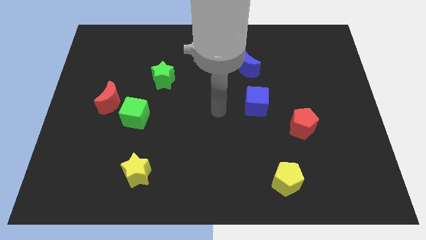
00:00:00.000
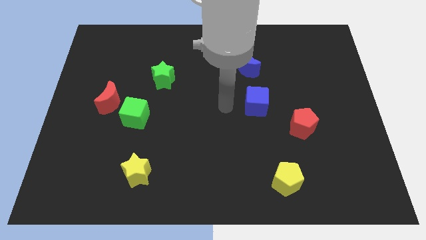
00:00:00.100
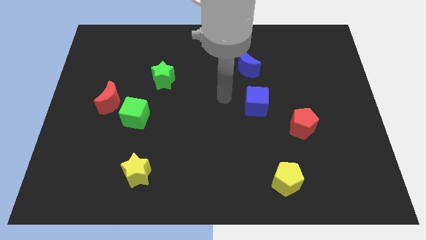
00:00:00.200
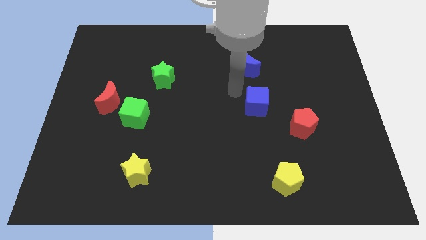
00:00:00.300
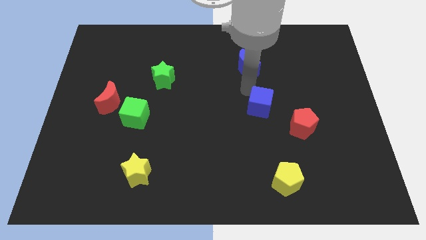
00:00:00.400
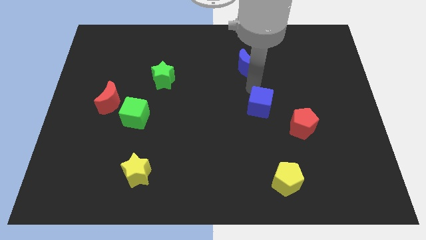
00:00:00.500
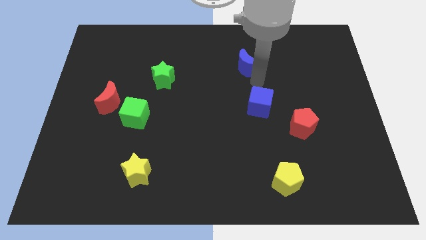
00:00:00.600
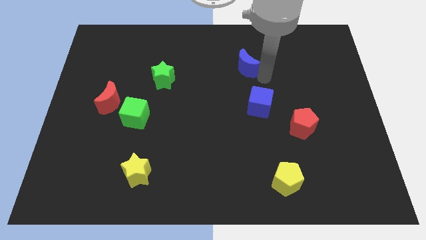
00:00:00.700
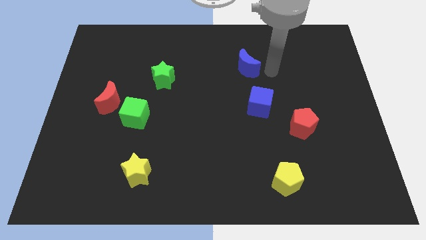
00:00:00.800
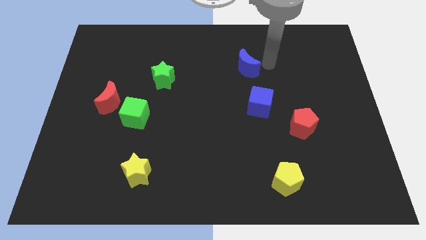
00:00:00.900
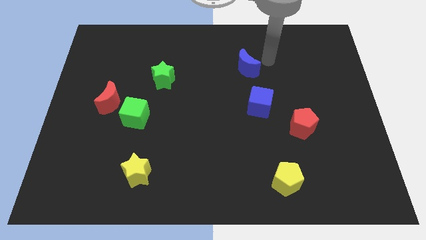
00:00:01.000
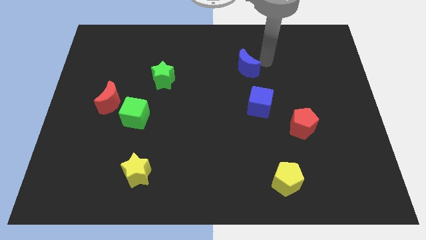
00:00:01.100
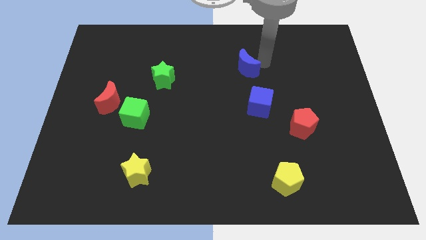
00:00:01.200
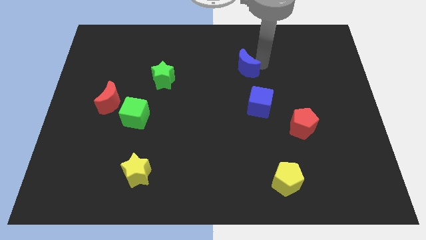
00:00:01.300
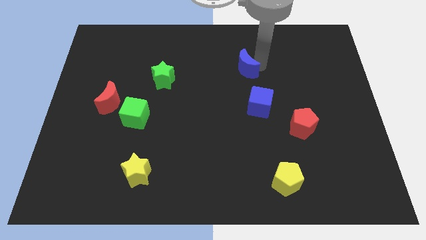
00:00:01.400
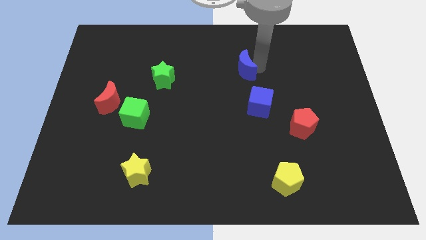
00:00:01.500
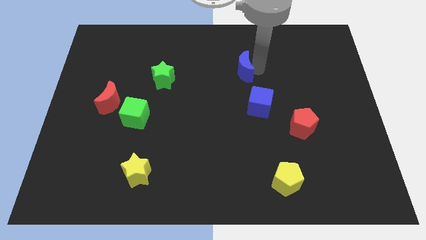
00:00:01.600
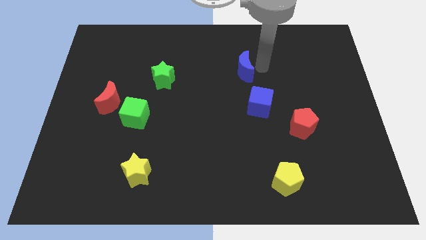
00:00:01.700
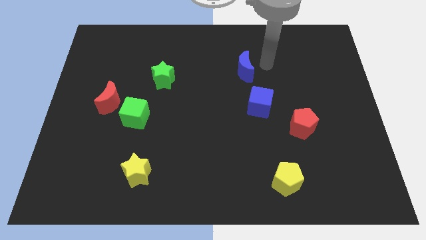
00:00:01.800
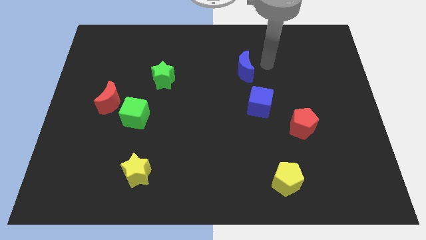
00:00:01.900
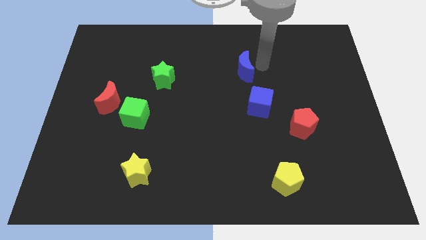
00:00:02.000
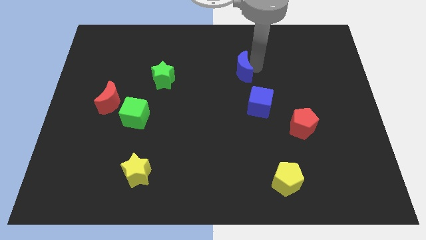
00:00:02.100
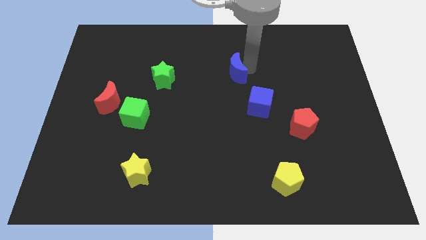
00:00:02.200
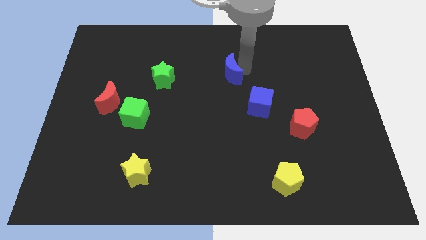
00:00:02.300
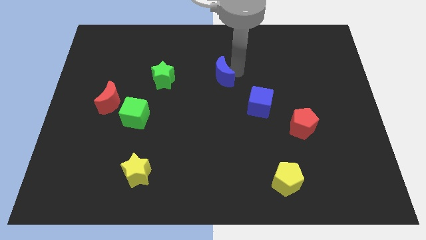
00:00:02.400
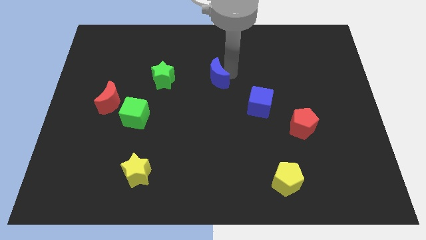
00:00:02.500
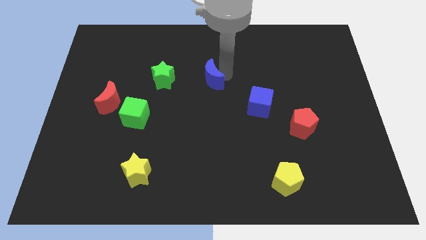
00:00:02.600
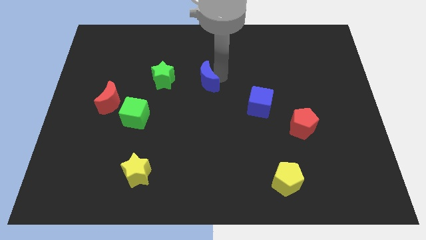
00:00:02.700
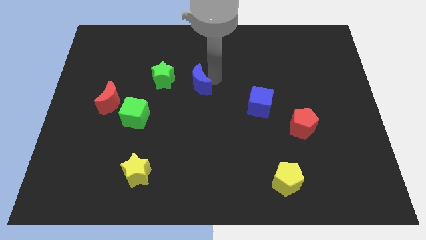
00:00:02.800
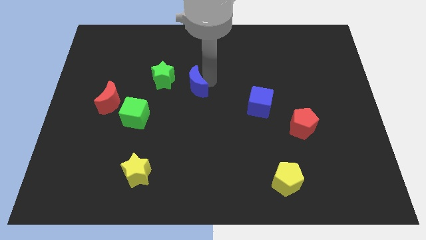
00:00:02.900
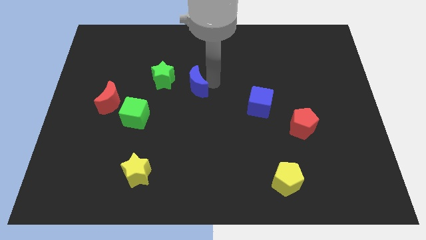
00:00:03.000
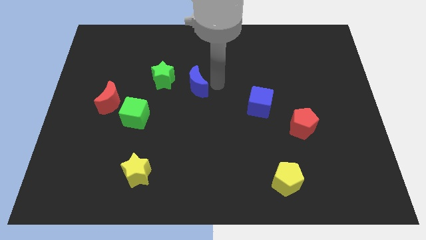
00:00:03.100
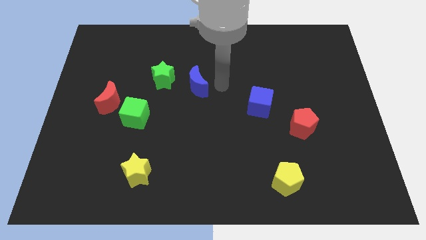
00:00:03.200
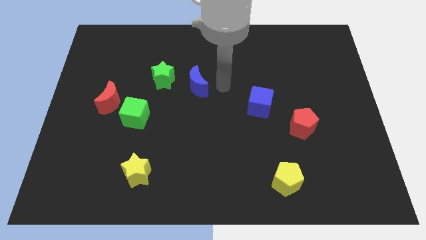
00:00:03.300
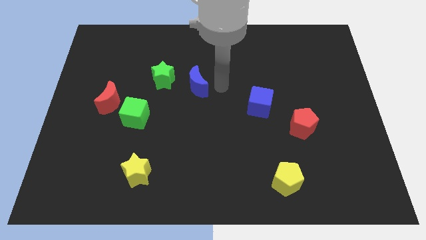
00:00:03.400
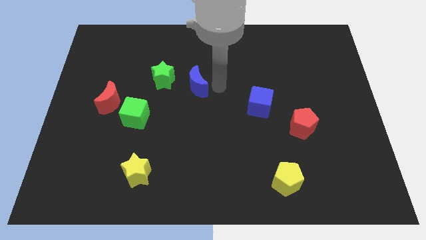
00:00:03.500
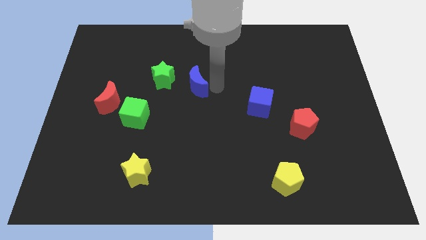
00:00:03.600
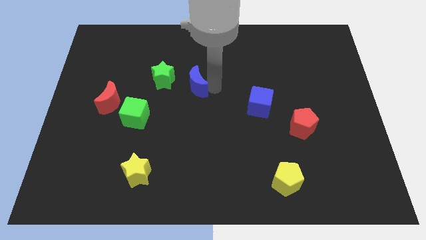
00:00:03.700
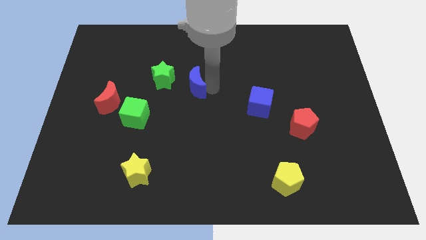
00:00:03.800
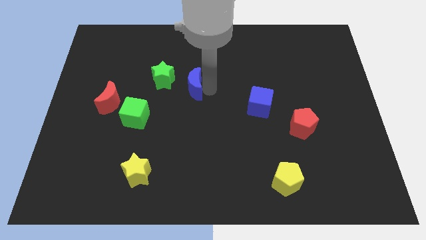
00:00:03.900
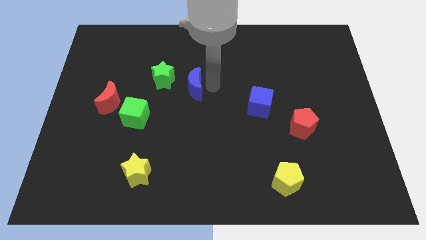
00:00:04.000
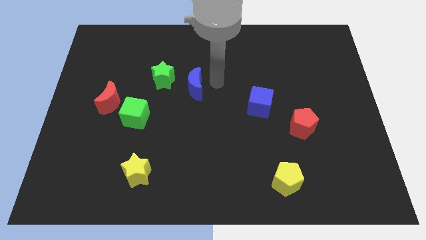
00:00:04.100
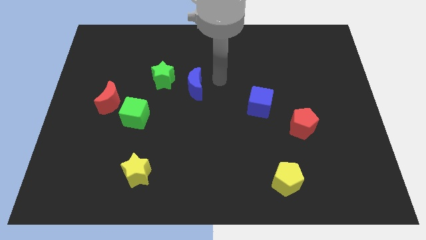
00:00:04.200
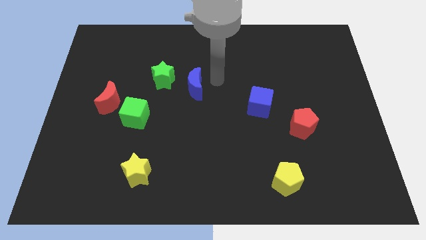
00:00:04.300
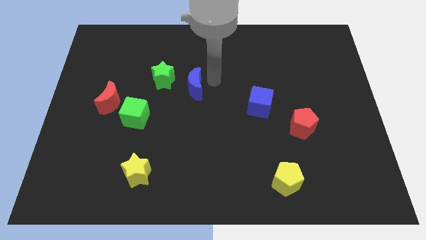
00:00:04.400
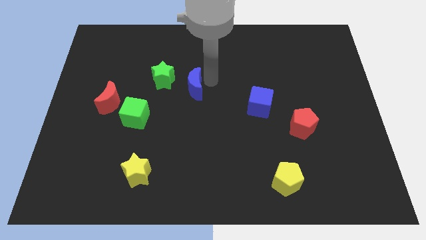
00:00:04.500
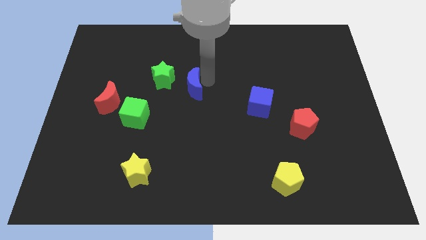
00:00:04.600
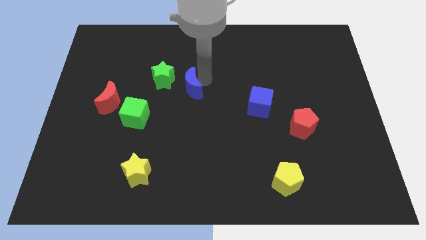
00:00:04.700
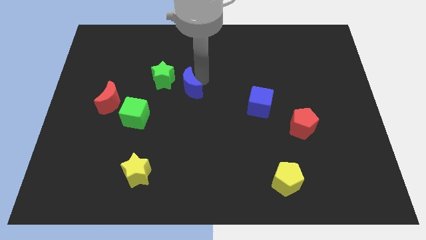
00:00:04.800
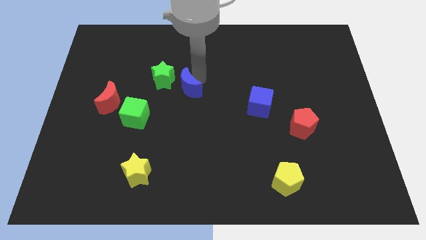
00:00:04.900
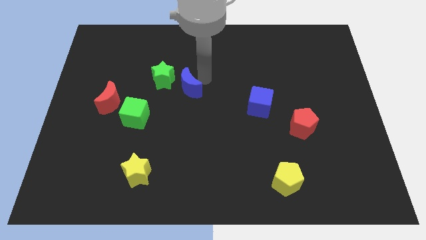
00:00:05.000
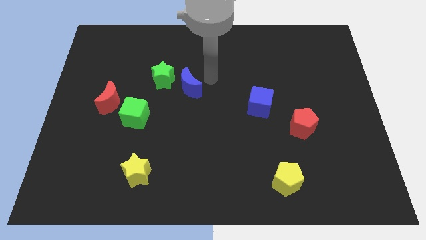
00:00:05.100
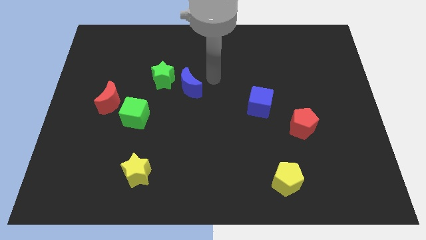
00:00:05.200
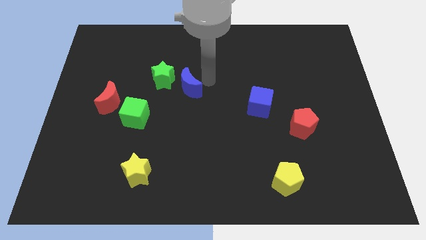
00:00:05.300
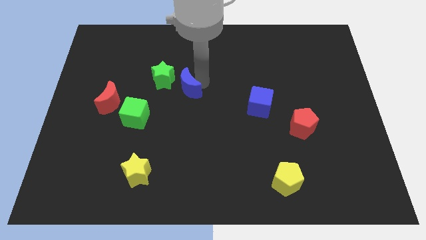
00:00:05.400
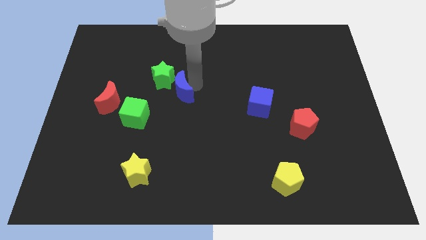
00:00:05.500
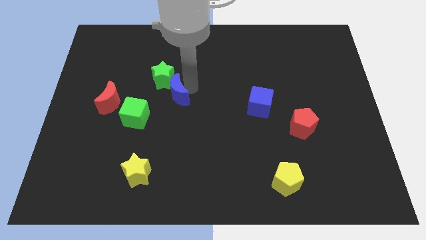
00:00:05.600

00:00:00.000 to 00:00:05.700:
put the blue moon to the right side of the red moon
